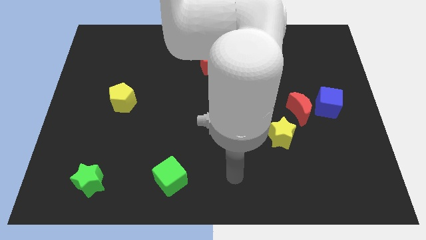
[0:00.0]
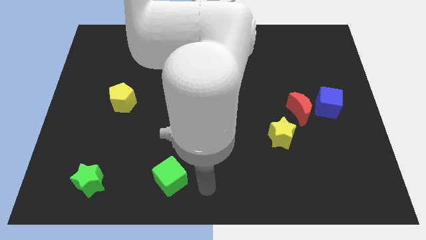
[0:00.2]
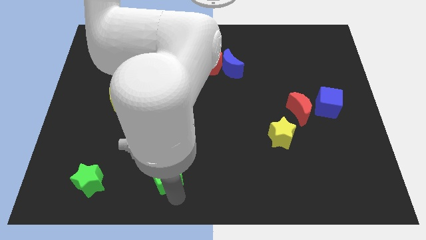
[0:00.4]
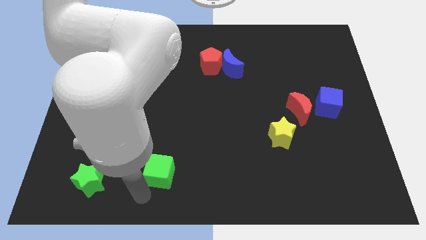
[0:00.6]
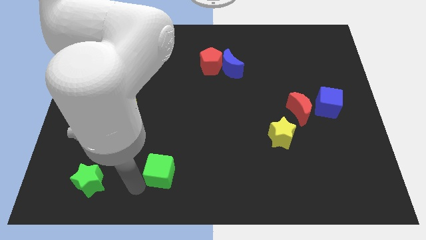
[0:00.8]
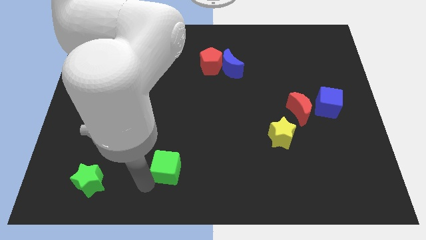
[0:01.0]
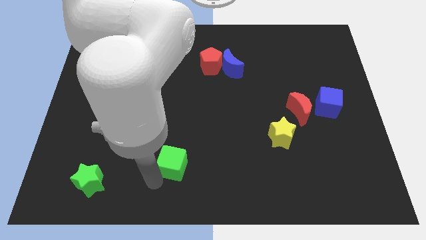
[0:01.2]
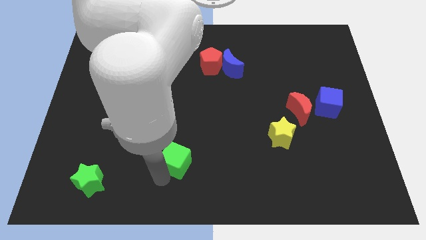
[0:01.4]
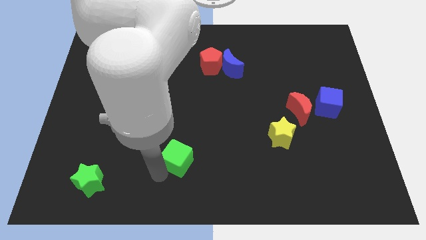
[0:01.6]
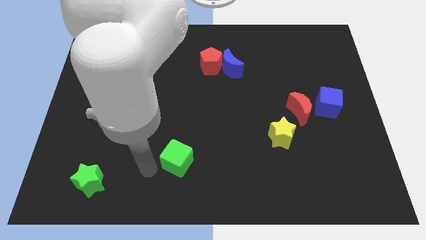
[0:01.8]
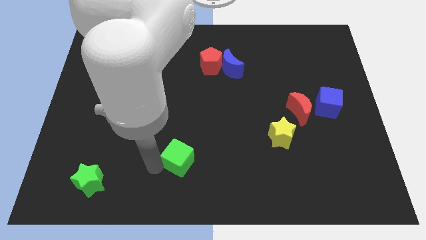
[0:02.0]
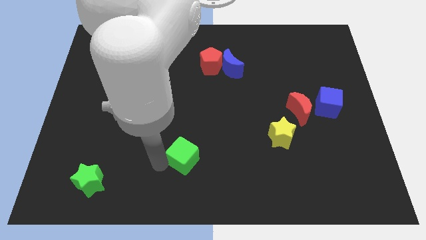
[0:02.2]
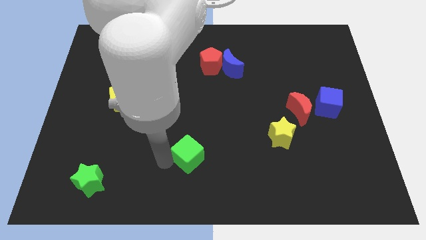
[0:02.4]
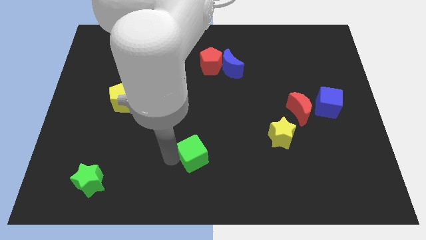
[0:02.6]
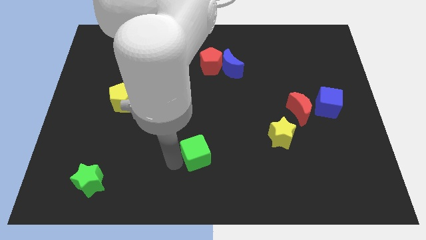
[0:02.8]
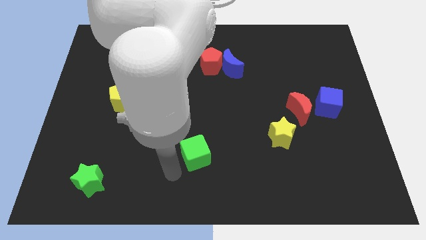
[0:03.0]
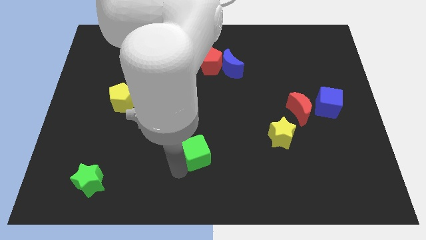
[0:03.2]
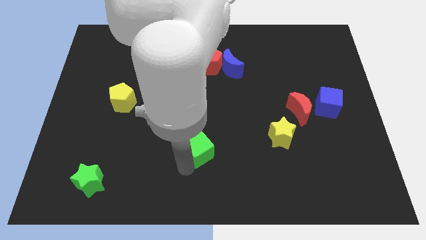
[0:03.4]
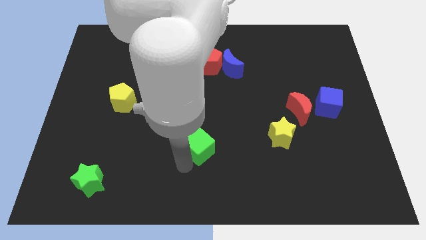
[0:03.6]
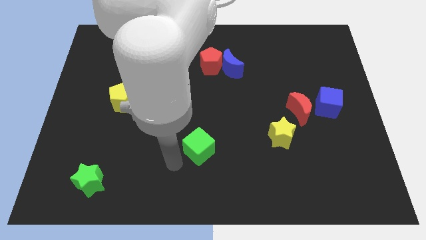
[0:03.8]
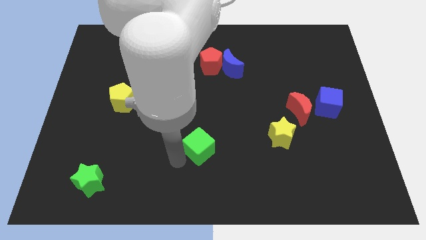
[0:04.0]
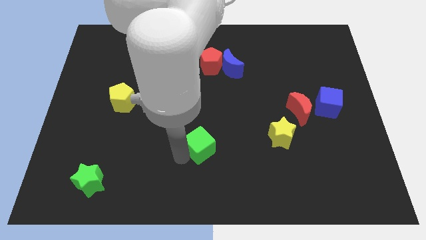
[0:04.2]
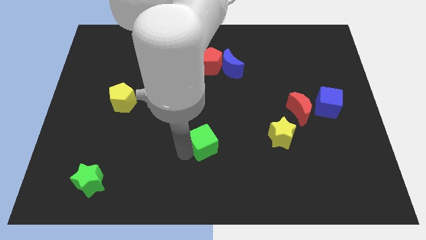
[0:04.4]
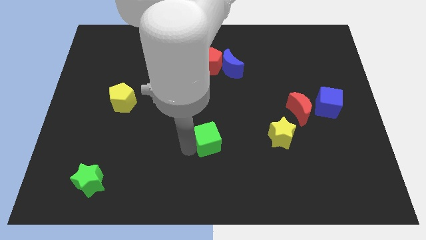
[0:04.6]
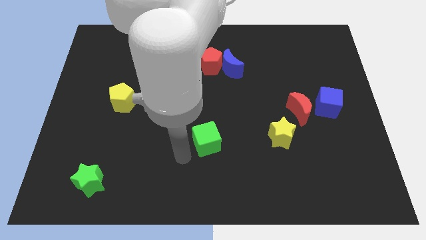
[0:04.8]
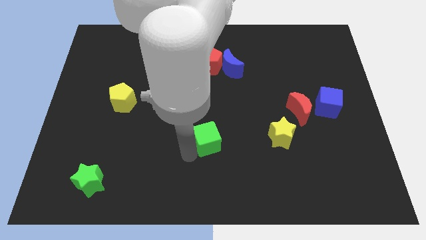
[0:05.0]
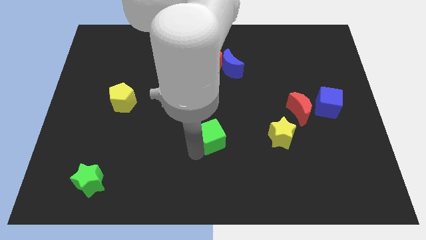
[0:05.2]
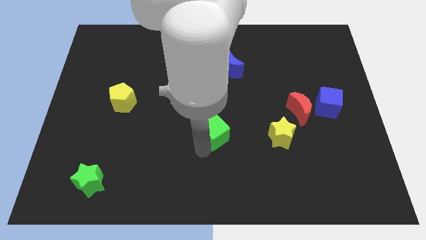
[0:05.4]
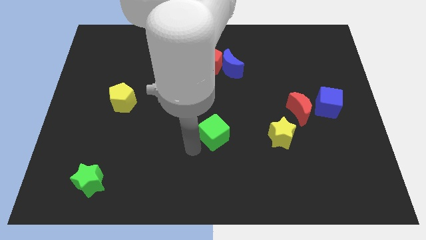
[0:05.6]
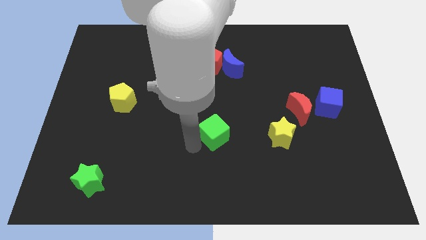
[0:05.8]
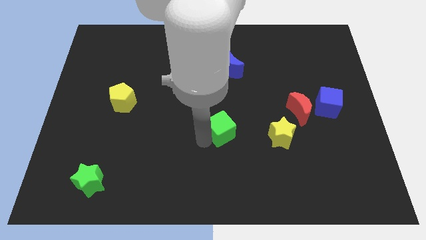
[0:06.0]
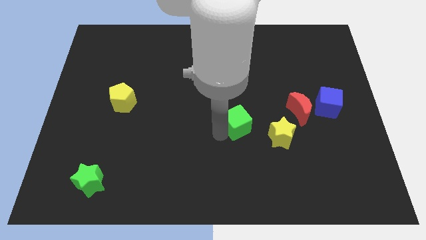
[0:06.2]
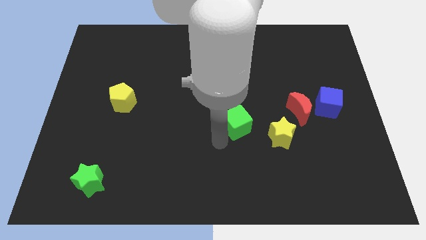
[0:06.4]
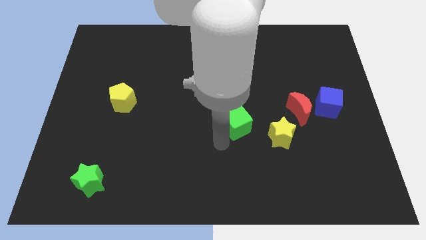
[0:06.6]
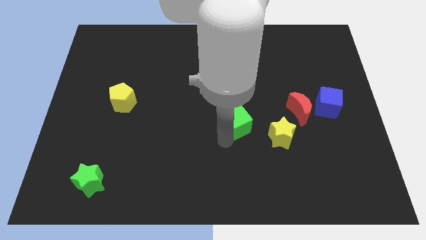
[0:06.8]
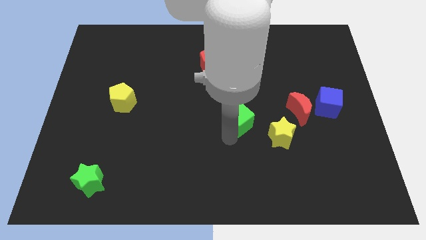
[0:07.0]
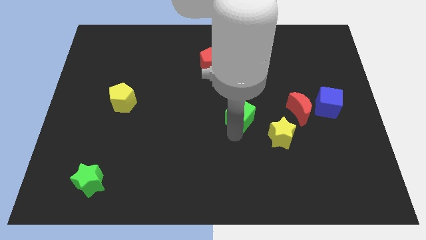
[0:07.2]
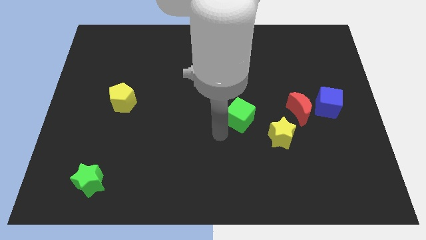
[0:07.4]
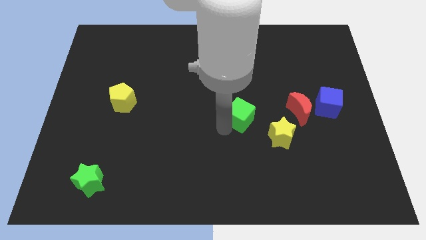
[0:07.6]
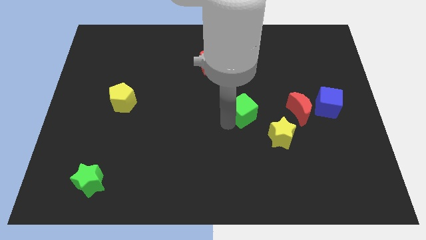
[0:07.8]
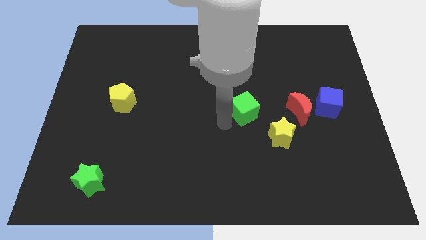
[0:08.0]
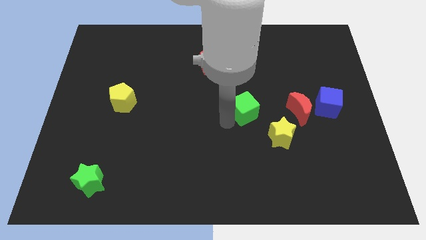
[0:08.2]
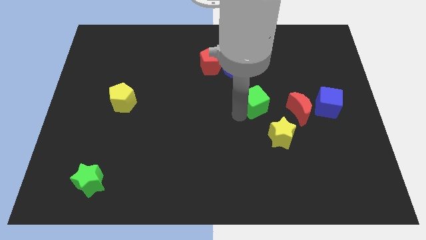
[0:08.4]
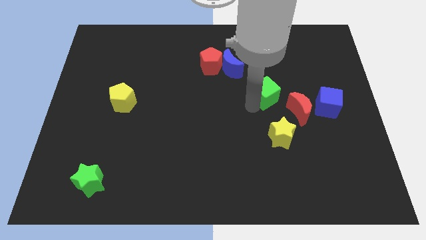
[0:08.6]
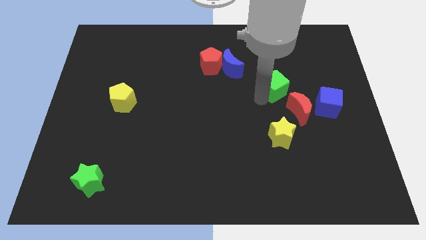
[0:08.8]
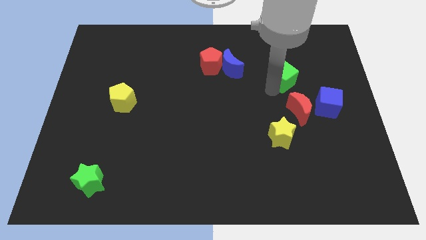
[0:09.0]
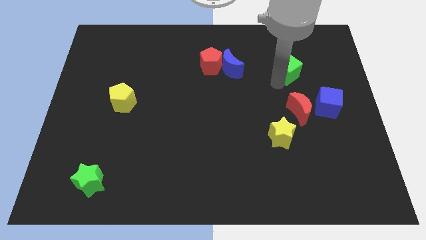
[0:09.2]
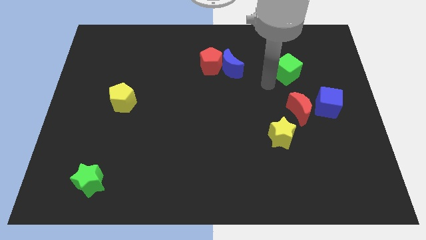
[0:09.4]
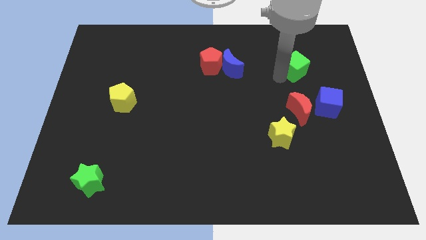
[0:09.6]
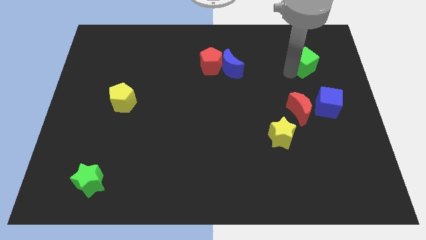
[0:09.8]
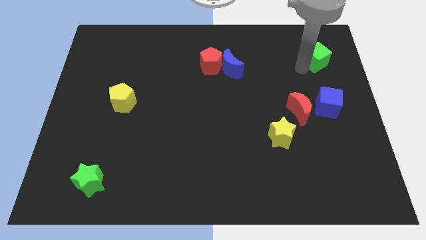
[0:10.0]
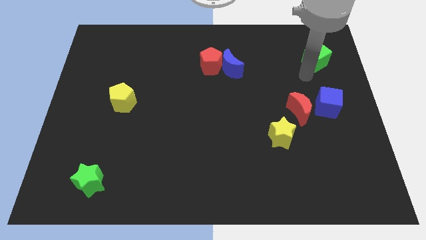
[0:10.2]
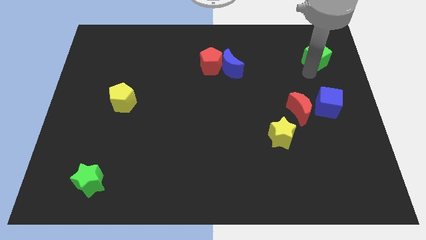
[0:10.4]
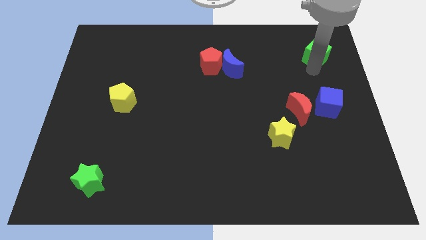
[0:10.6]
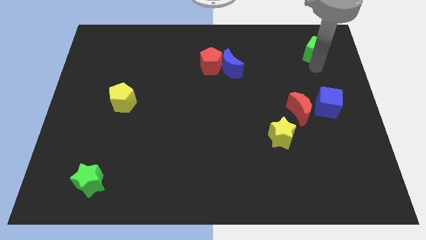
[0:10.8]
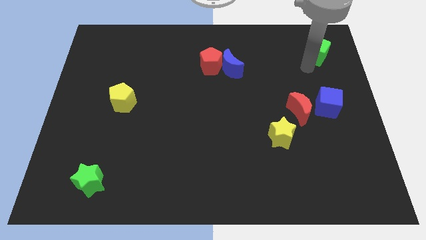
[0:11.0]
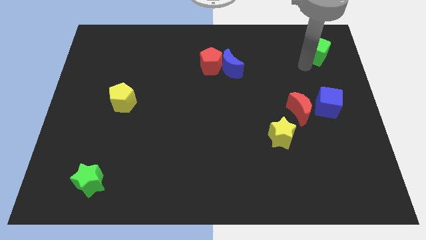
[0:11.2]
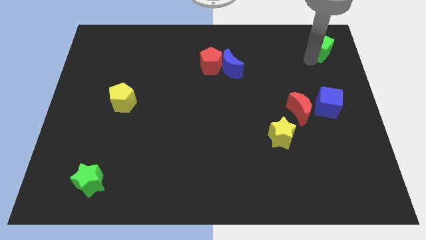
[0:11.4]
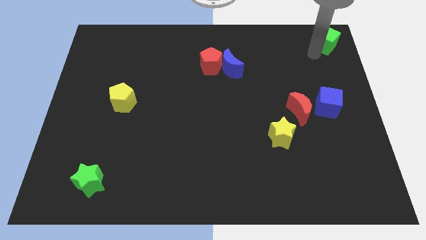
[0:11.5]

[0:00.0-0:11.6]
slide the green cube to the top right of the board
